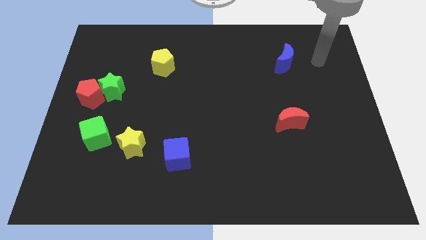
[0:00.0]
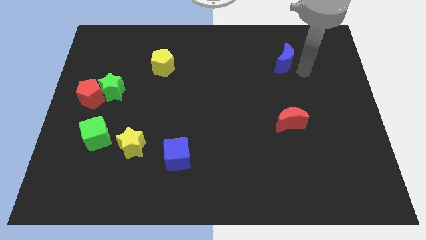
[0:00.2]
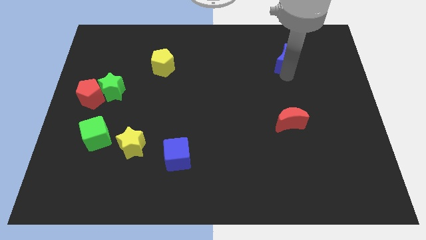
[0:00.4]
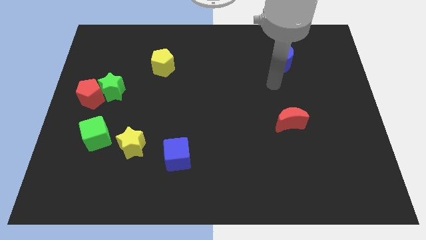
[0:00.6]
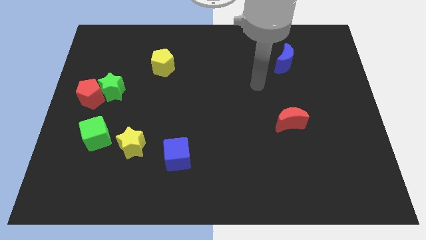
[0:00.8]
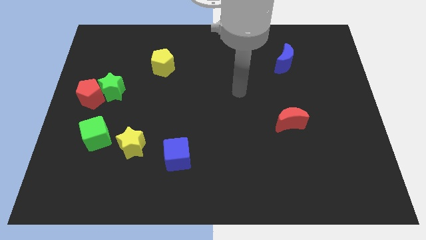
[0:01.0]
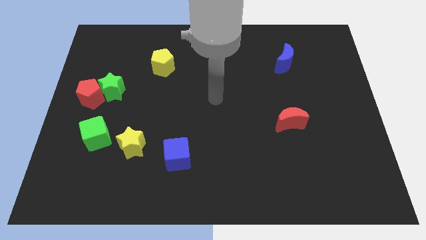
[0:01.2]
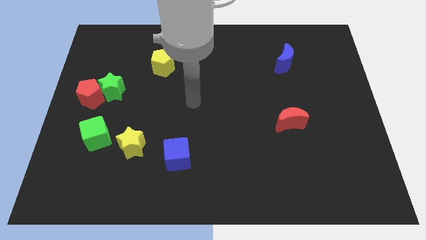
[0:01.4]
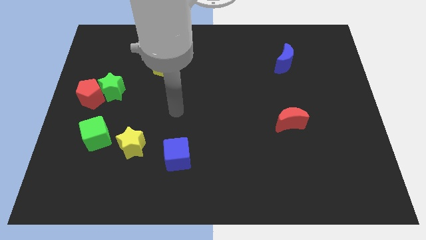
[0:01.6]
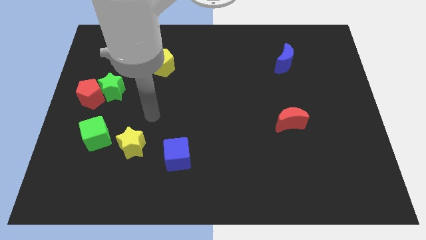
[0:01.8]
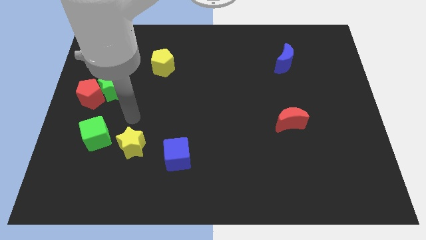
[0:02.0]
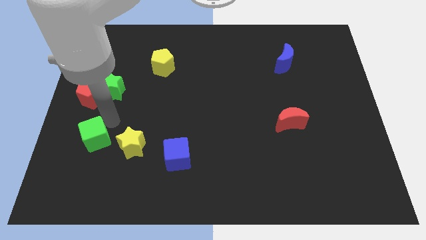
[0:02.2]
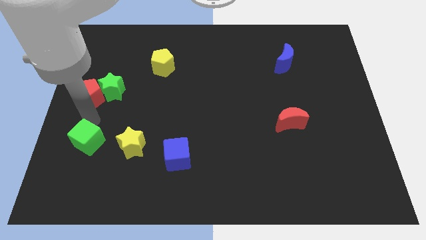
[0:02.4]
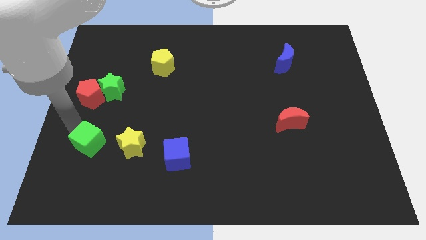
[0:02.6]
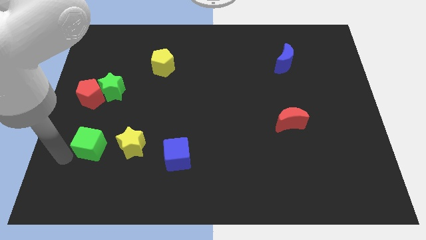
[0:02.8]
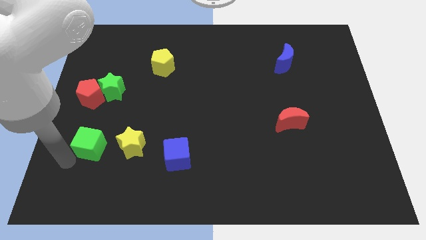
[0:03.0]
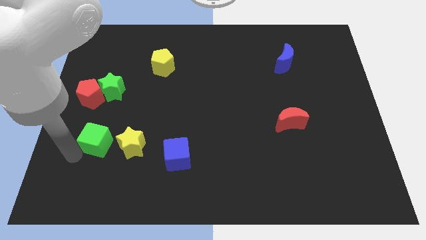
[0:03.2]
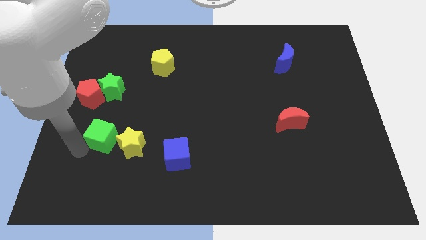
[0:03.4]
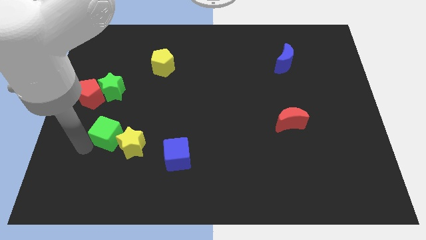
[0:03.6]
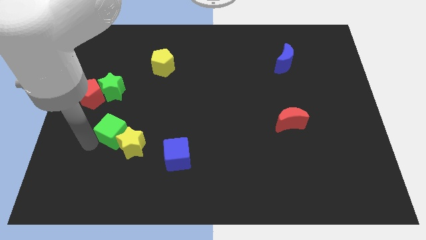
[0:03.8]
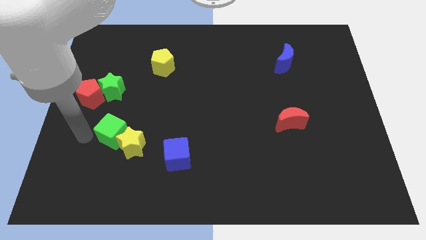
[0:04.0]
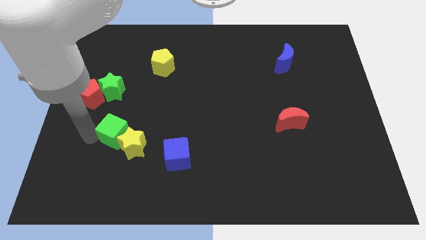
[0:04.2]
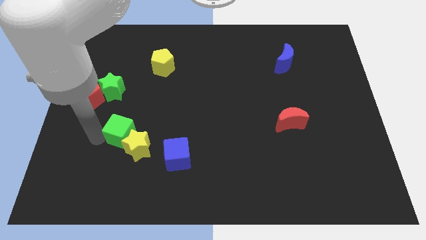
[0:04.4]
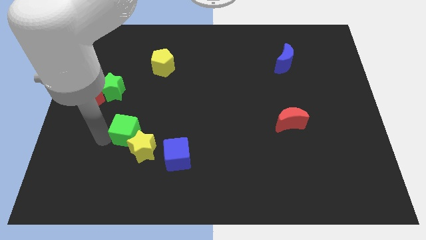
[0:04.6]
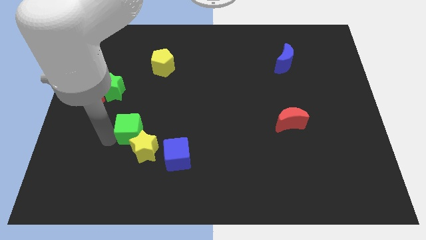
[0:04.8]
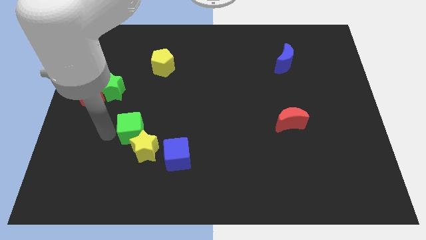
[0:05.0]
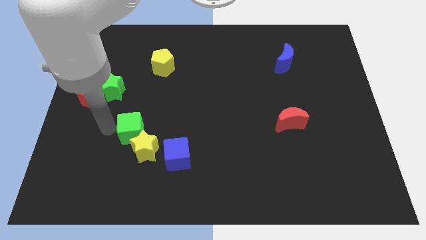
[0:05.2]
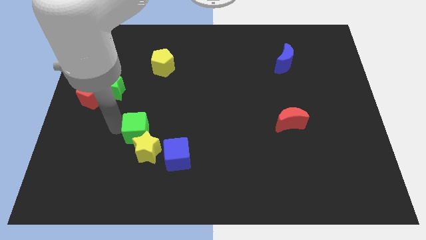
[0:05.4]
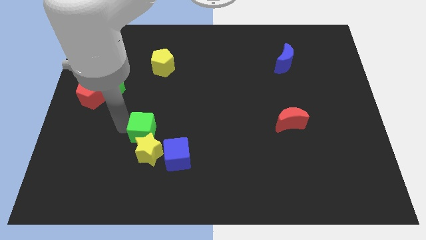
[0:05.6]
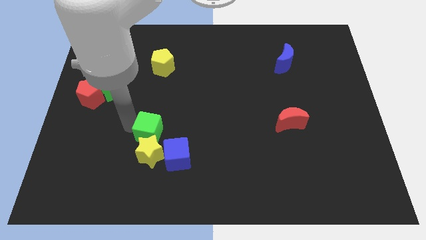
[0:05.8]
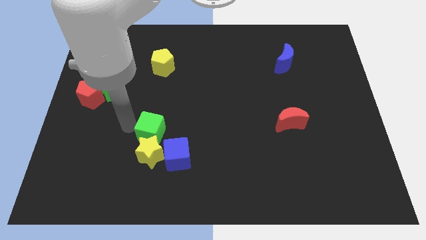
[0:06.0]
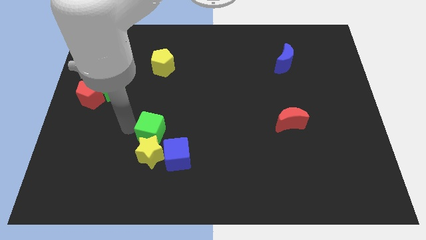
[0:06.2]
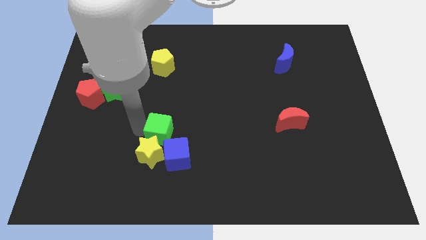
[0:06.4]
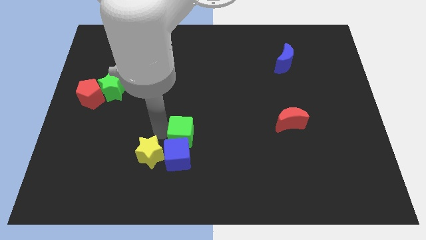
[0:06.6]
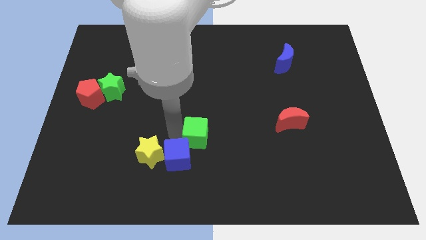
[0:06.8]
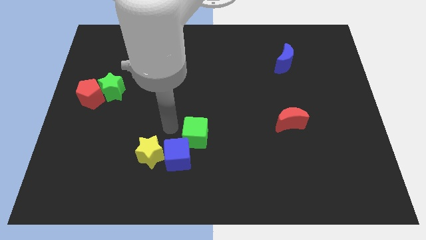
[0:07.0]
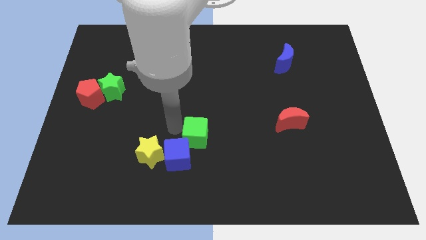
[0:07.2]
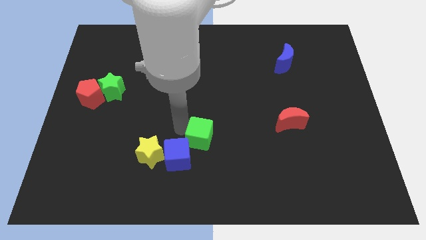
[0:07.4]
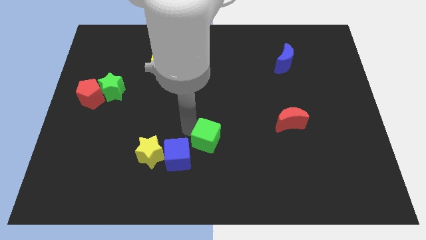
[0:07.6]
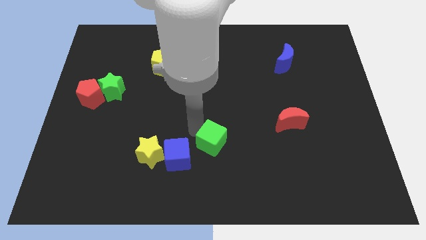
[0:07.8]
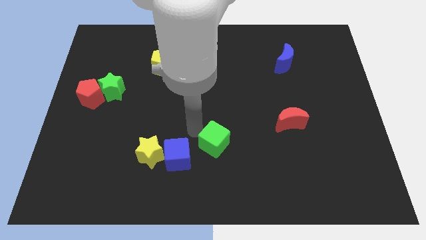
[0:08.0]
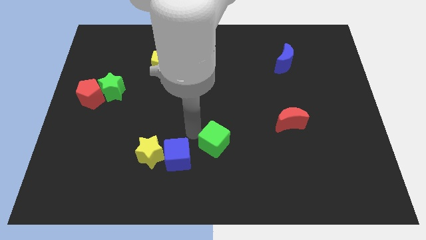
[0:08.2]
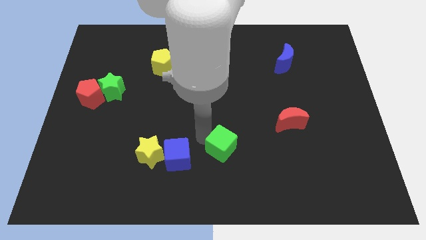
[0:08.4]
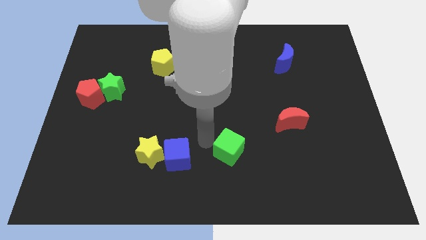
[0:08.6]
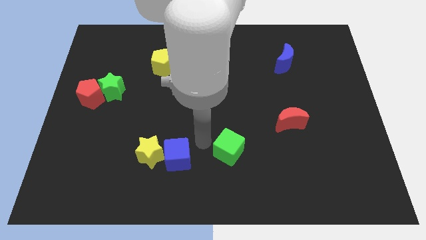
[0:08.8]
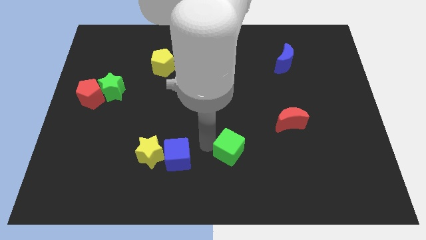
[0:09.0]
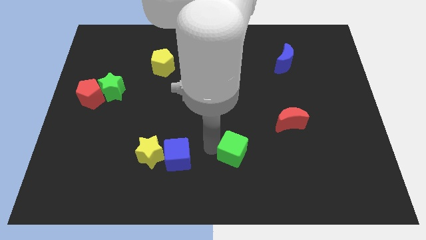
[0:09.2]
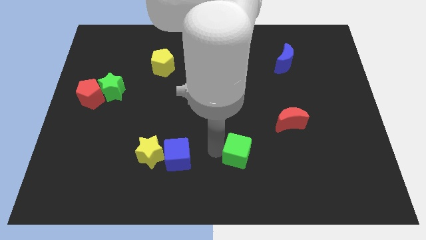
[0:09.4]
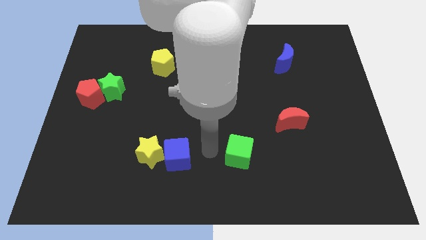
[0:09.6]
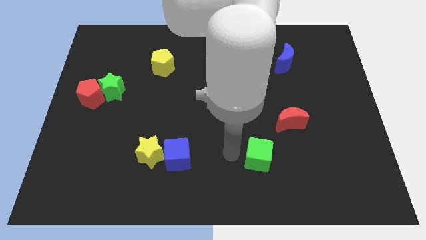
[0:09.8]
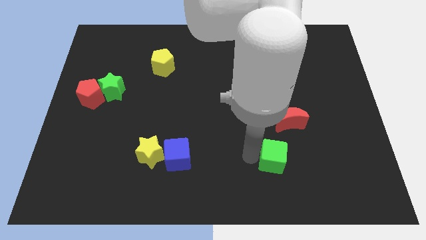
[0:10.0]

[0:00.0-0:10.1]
push the green cube below the red moon

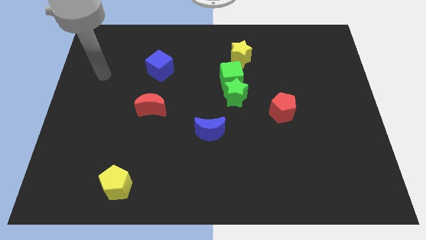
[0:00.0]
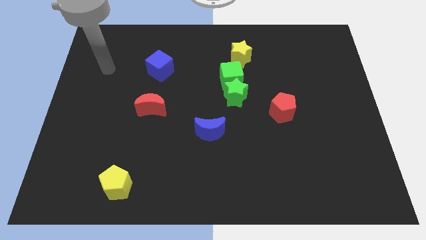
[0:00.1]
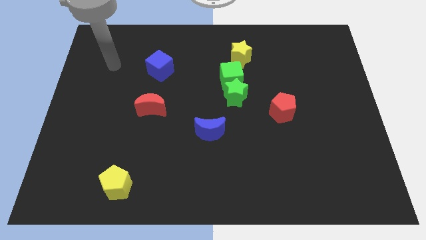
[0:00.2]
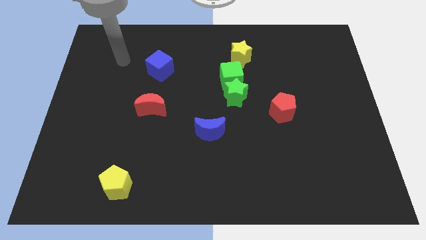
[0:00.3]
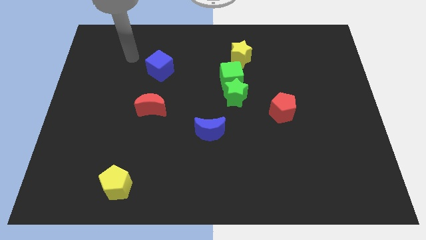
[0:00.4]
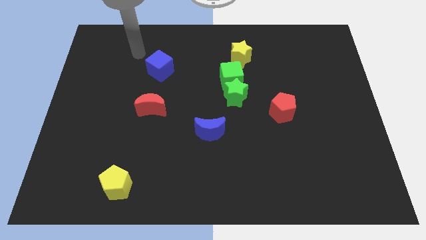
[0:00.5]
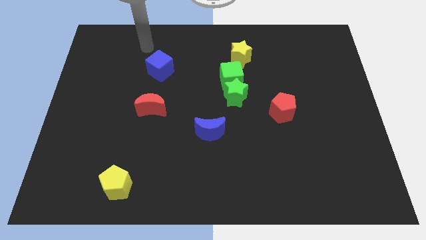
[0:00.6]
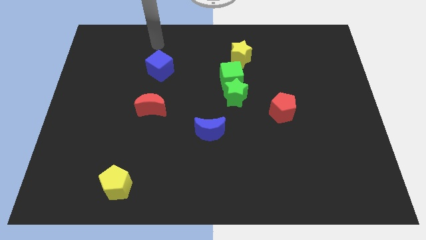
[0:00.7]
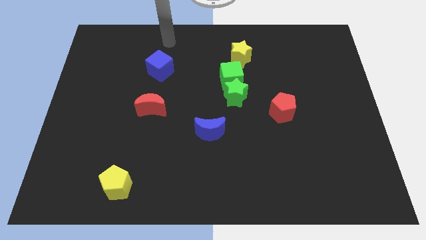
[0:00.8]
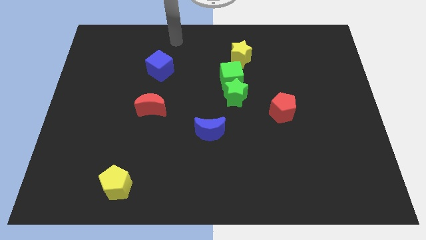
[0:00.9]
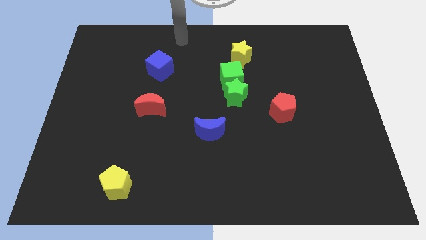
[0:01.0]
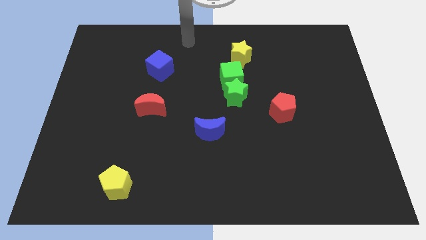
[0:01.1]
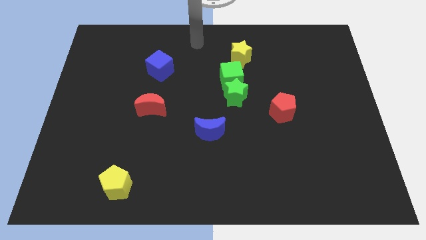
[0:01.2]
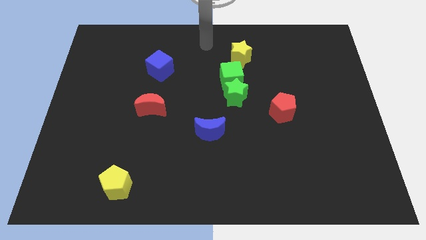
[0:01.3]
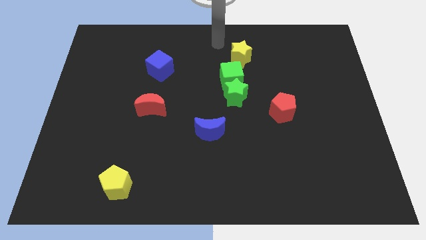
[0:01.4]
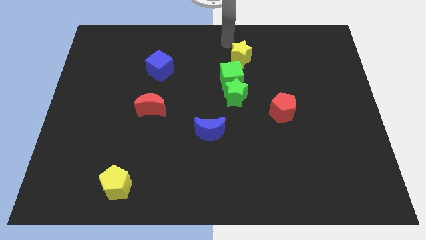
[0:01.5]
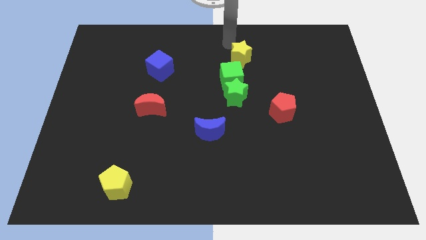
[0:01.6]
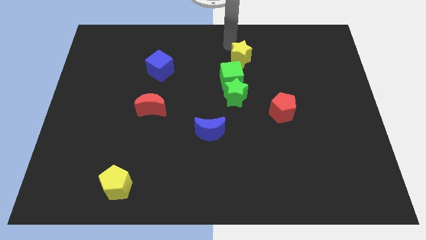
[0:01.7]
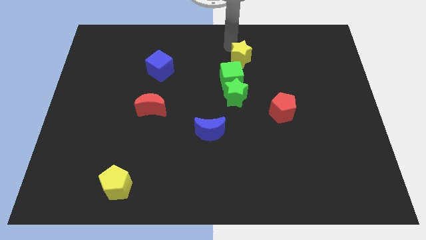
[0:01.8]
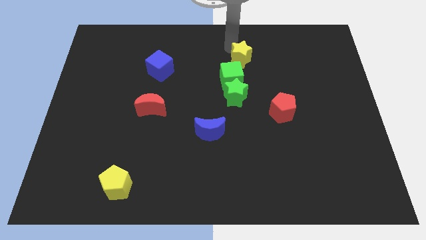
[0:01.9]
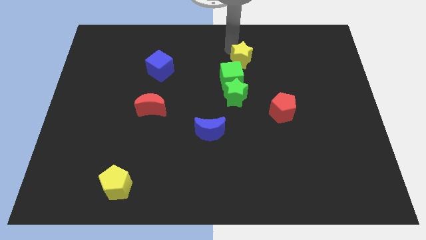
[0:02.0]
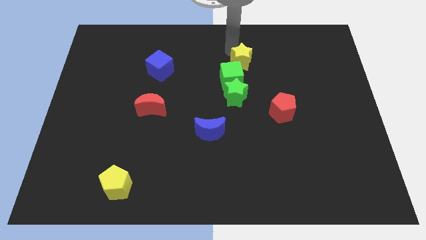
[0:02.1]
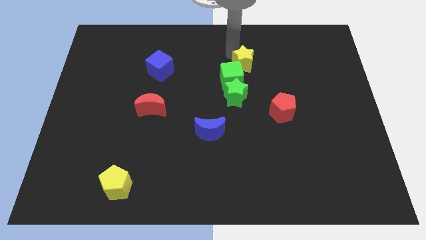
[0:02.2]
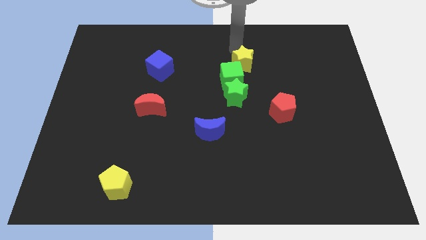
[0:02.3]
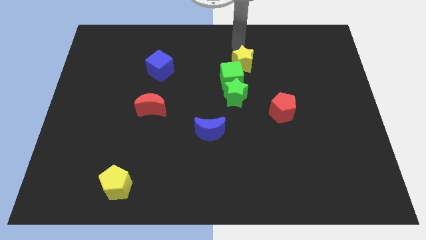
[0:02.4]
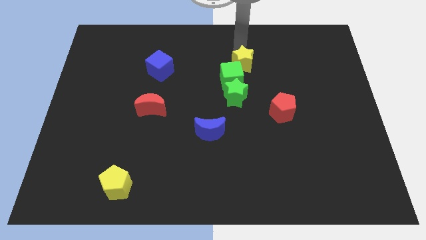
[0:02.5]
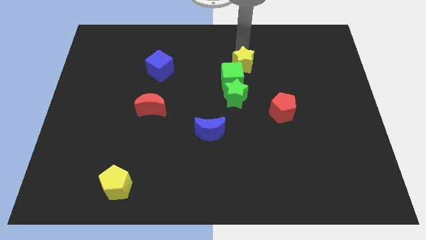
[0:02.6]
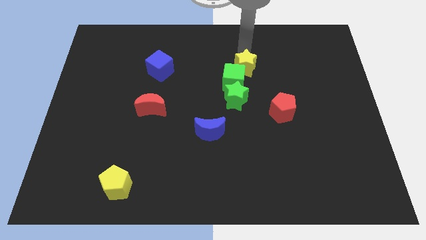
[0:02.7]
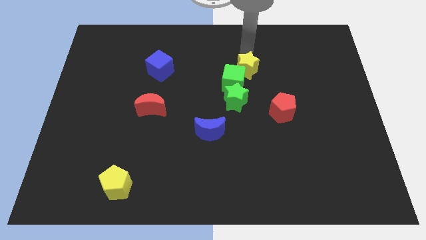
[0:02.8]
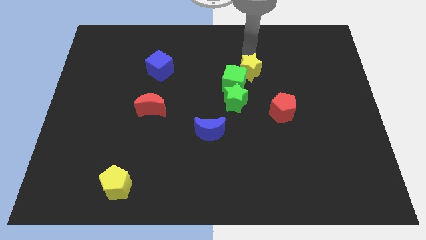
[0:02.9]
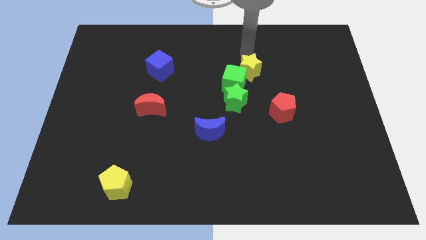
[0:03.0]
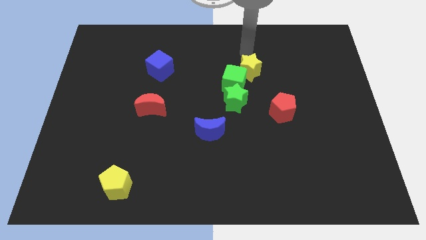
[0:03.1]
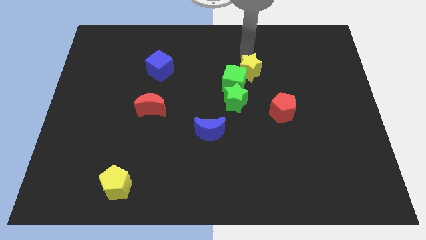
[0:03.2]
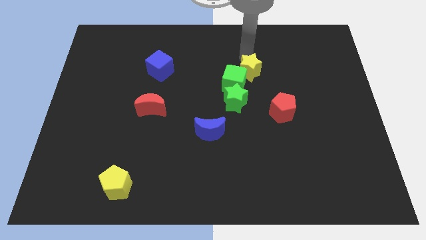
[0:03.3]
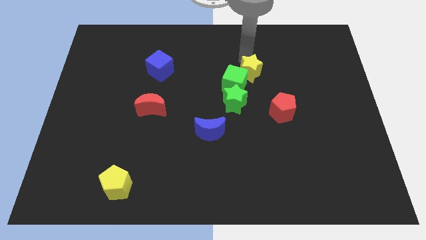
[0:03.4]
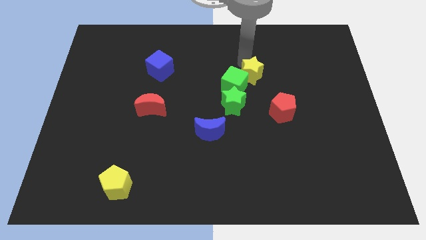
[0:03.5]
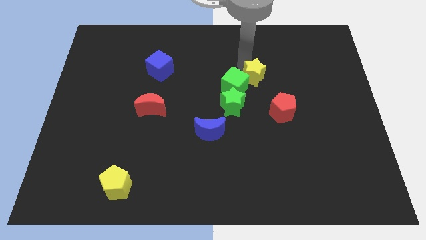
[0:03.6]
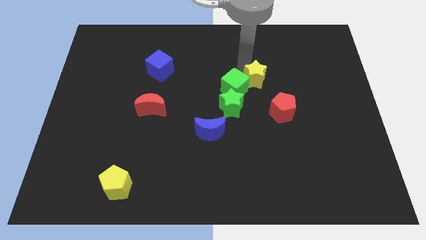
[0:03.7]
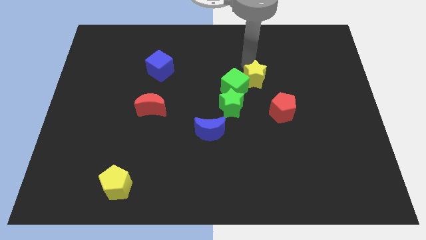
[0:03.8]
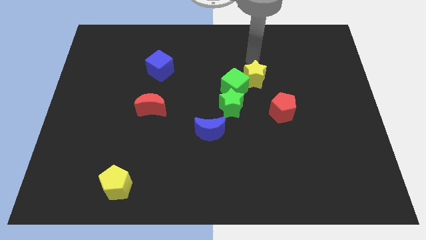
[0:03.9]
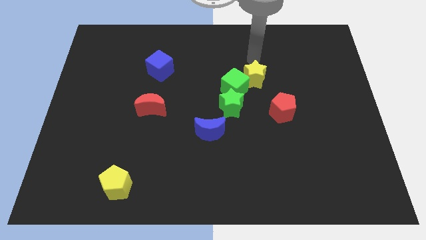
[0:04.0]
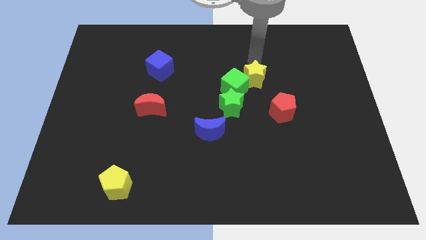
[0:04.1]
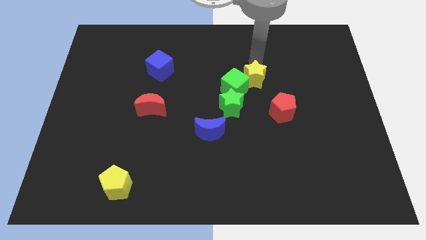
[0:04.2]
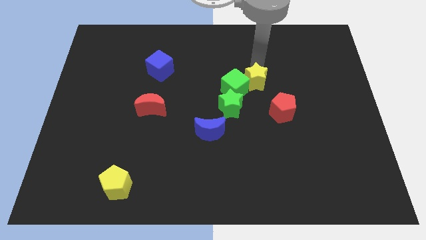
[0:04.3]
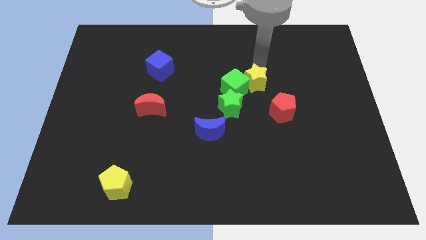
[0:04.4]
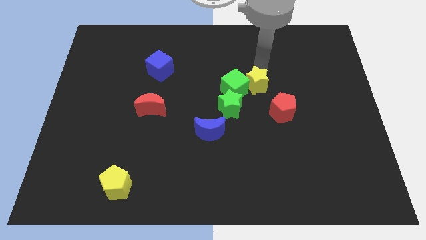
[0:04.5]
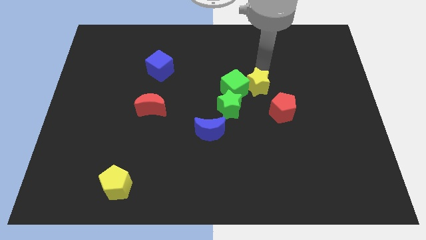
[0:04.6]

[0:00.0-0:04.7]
put the yellow star diagonally down and to the right of the green cube
